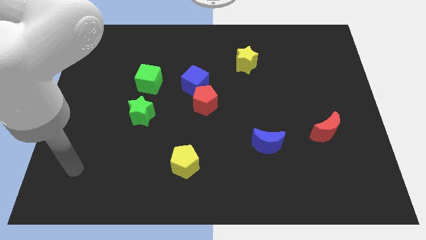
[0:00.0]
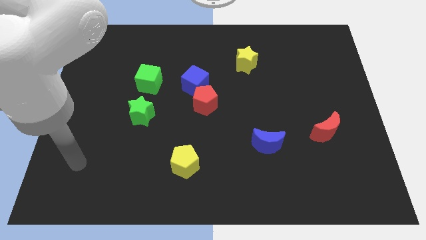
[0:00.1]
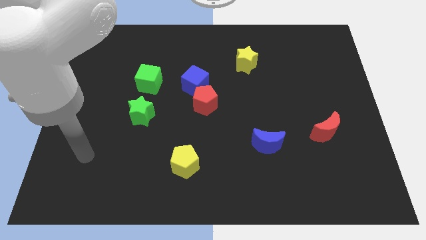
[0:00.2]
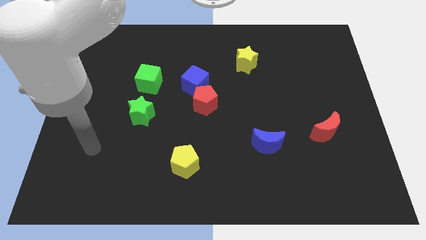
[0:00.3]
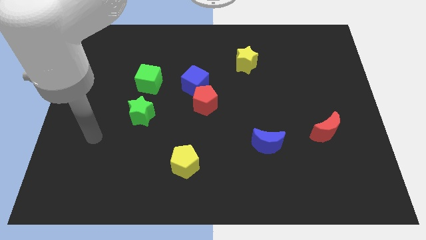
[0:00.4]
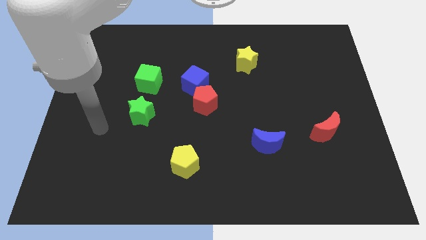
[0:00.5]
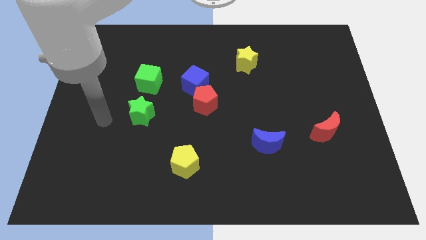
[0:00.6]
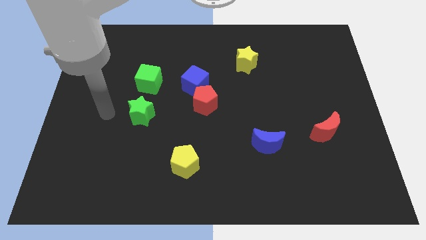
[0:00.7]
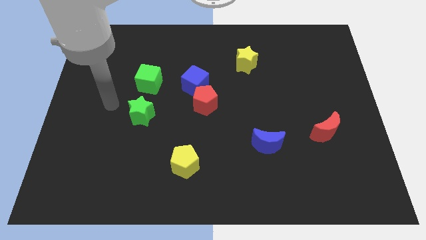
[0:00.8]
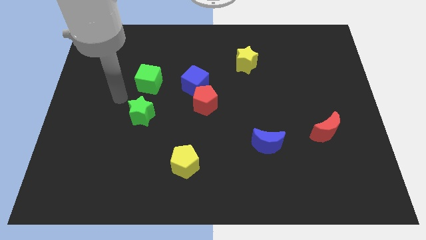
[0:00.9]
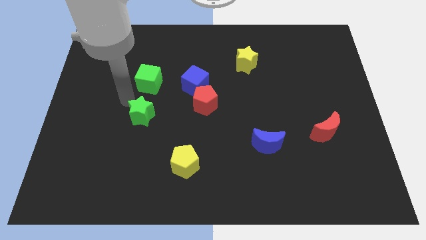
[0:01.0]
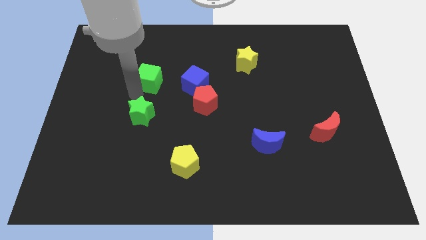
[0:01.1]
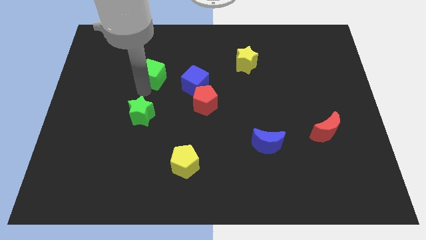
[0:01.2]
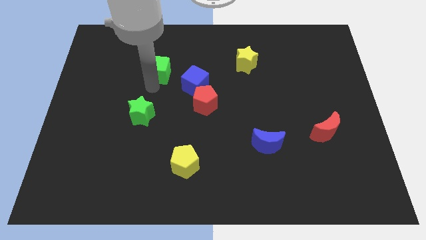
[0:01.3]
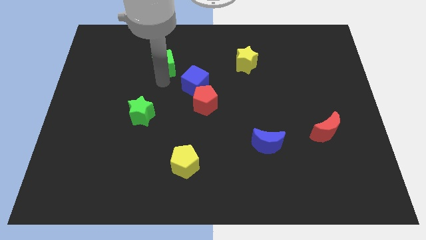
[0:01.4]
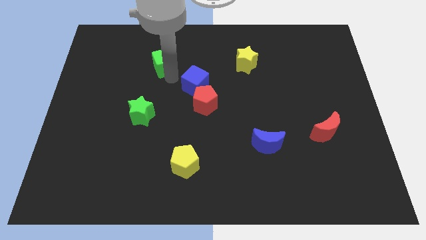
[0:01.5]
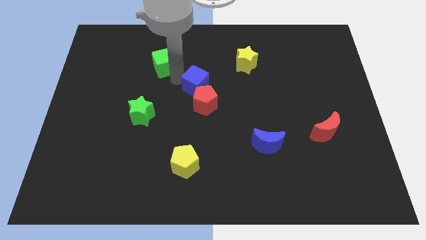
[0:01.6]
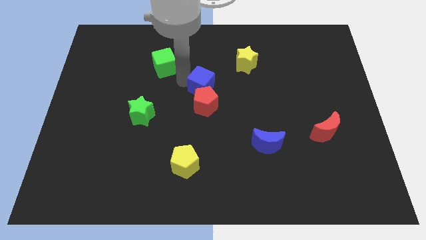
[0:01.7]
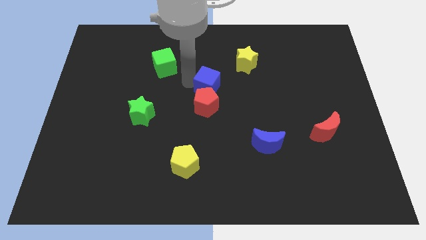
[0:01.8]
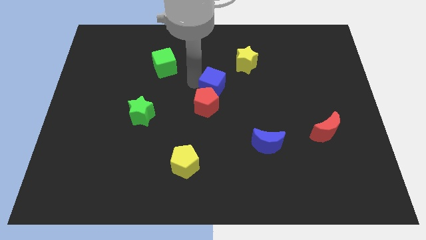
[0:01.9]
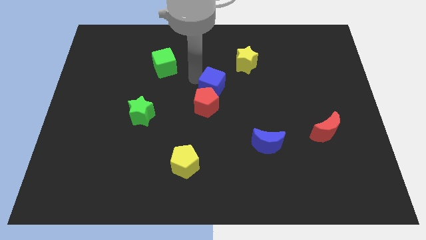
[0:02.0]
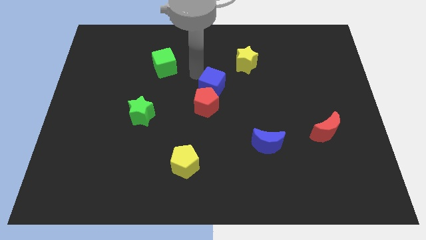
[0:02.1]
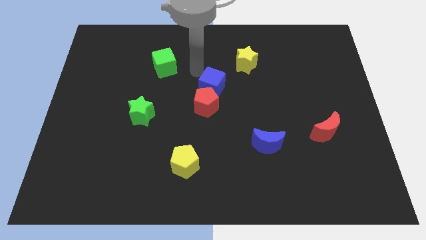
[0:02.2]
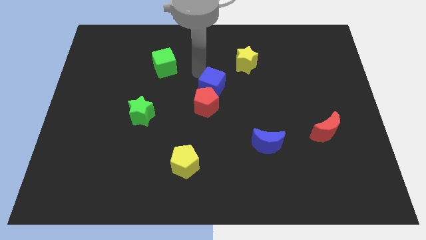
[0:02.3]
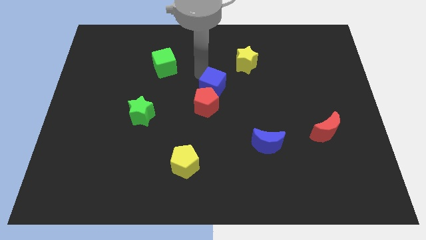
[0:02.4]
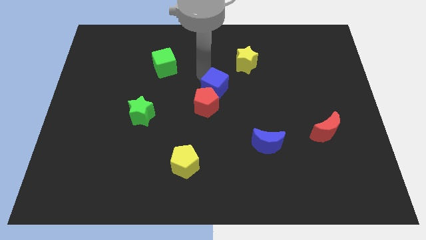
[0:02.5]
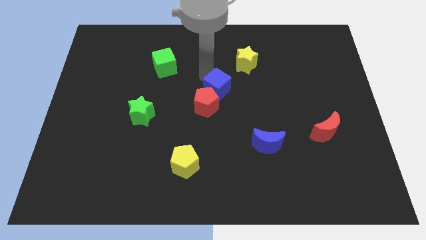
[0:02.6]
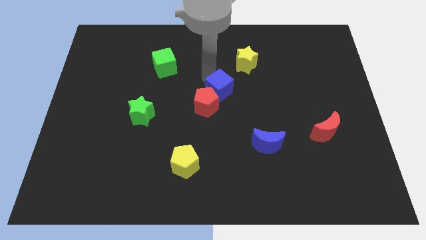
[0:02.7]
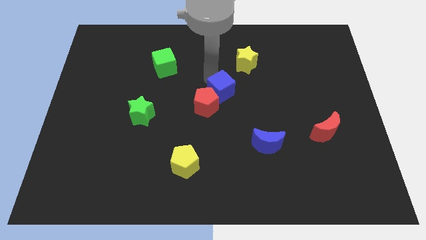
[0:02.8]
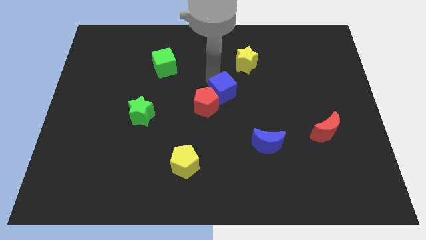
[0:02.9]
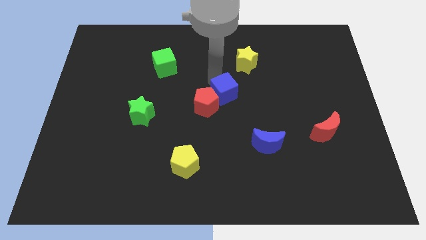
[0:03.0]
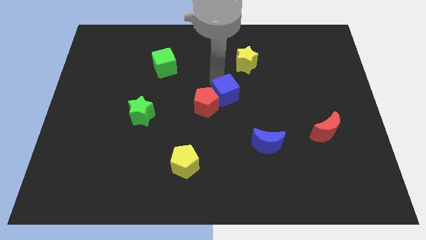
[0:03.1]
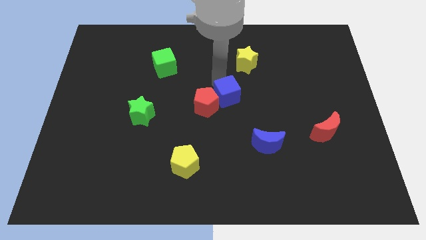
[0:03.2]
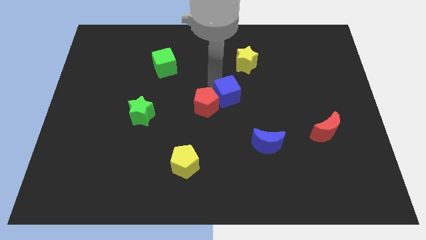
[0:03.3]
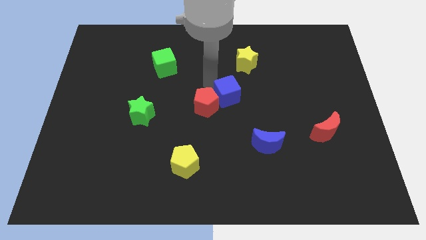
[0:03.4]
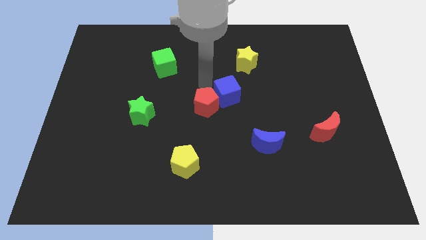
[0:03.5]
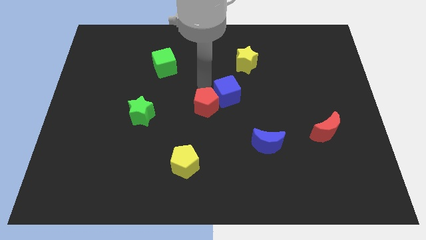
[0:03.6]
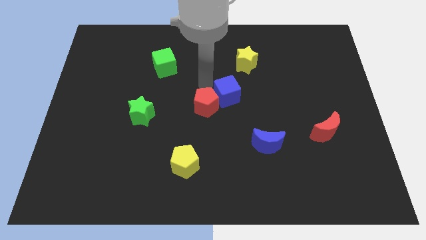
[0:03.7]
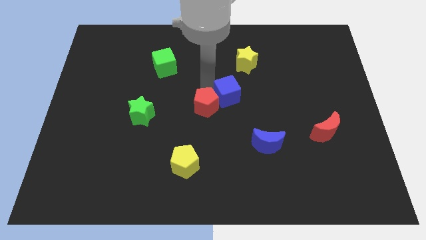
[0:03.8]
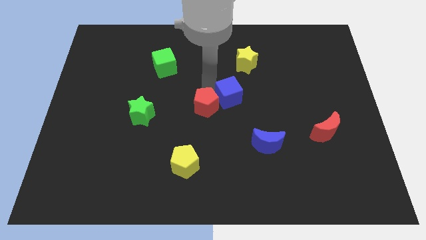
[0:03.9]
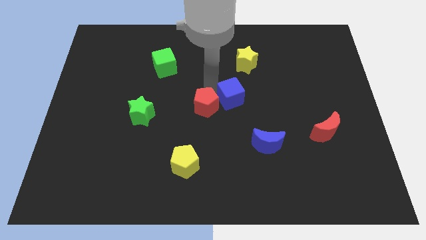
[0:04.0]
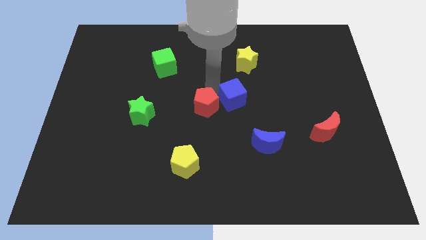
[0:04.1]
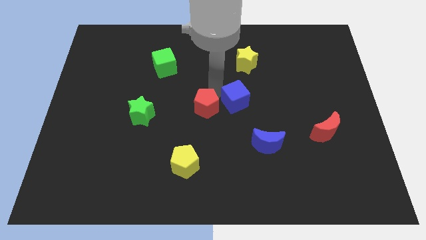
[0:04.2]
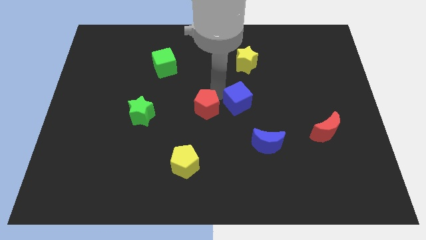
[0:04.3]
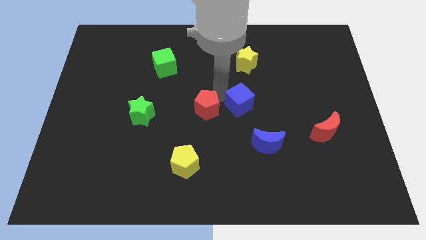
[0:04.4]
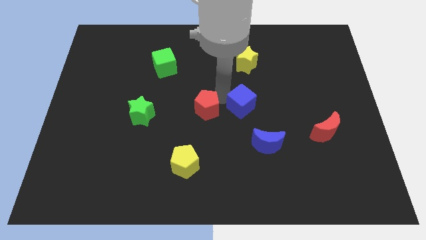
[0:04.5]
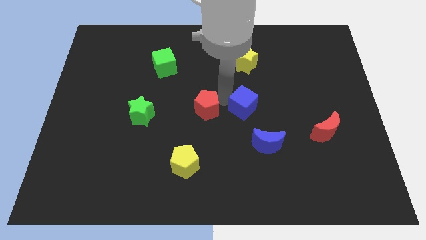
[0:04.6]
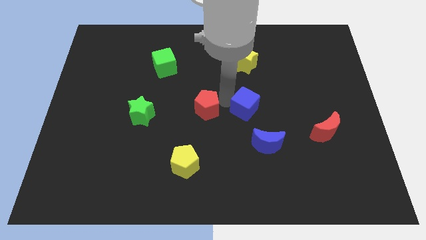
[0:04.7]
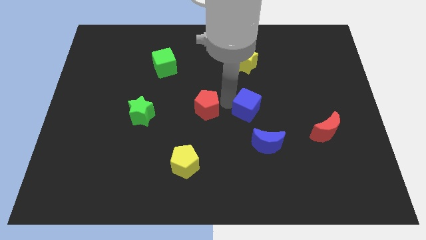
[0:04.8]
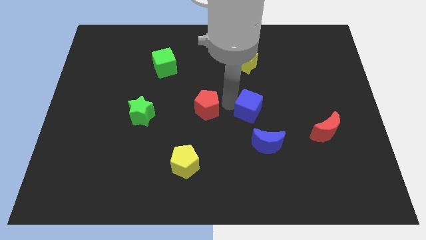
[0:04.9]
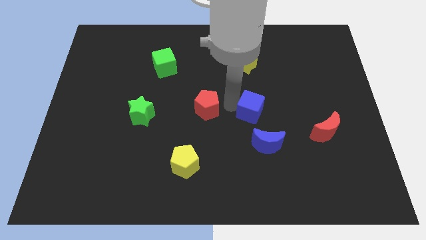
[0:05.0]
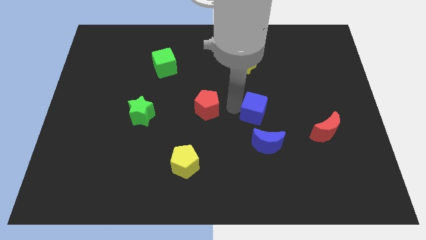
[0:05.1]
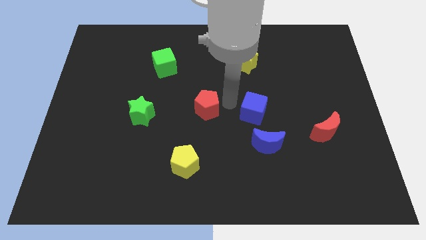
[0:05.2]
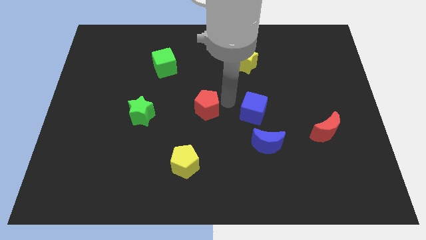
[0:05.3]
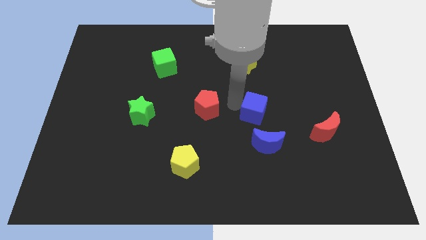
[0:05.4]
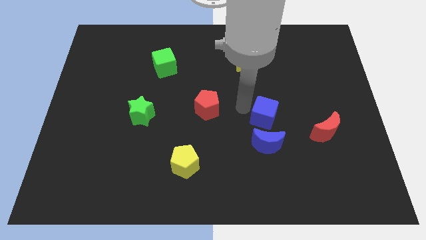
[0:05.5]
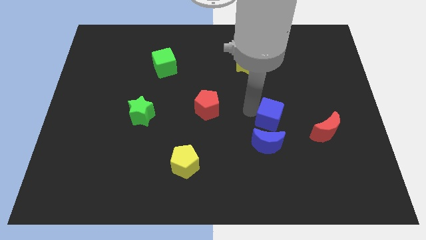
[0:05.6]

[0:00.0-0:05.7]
slide the blue cube to the top right side of the blue moon

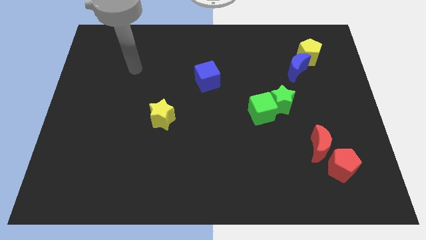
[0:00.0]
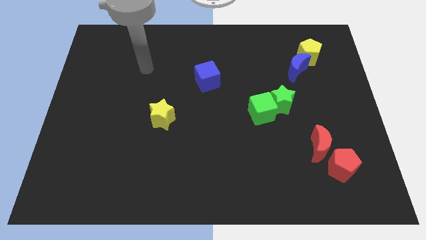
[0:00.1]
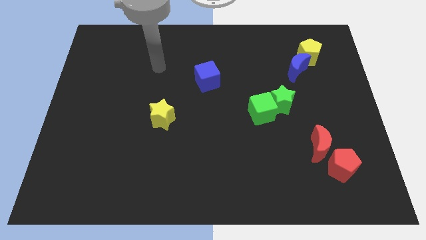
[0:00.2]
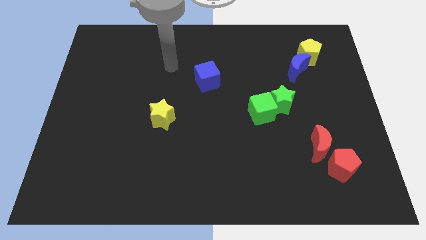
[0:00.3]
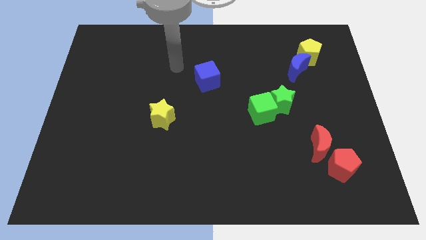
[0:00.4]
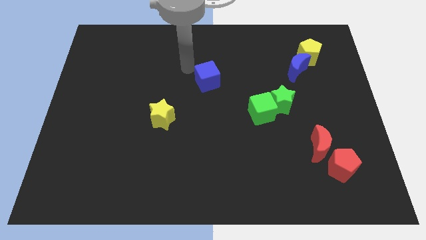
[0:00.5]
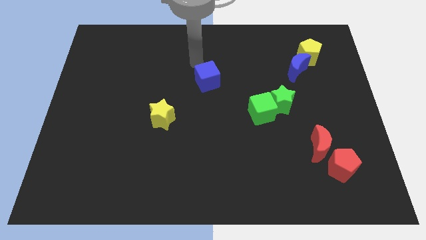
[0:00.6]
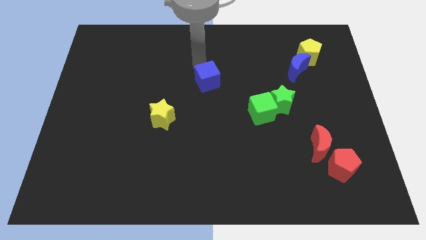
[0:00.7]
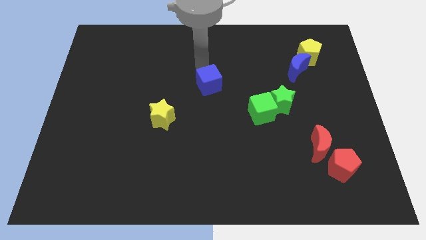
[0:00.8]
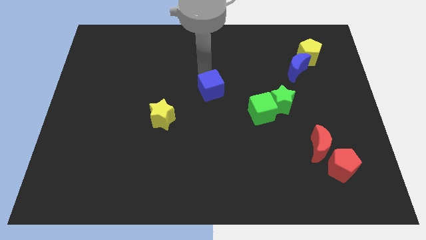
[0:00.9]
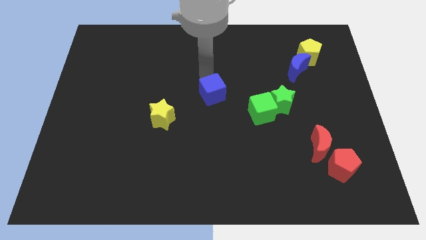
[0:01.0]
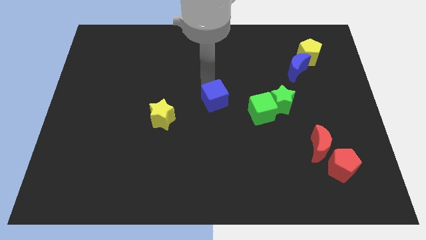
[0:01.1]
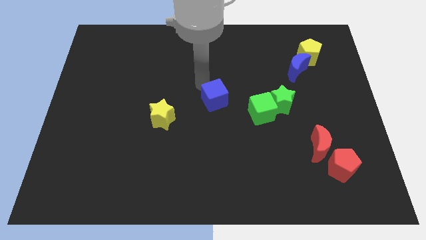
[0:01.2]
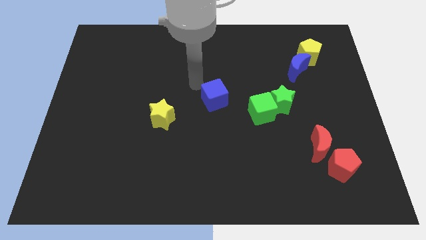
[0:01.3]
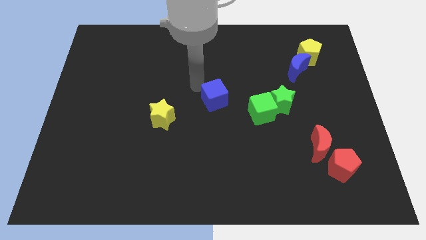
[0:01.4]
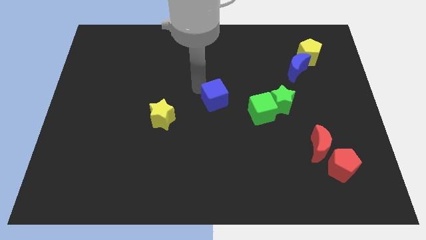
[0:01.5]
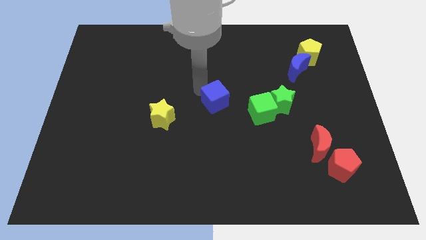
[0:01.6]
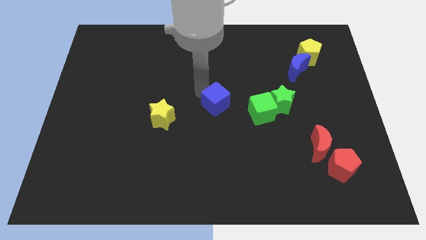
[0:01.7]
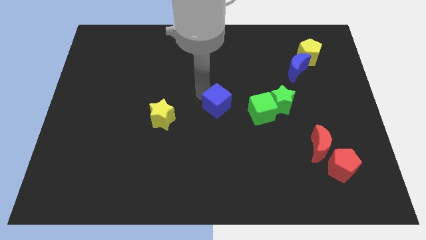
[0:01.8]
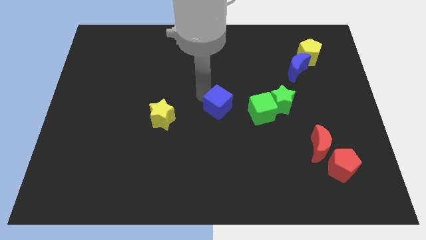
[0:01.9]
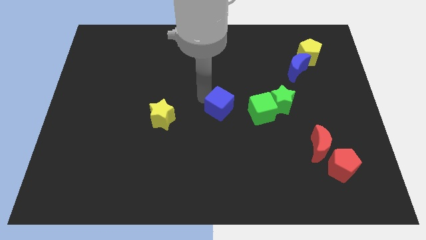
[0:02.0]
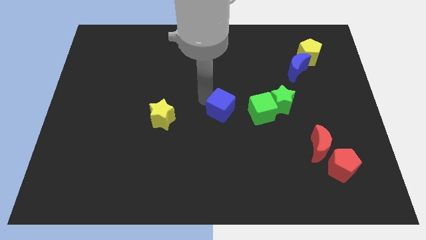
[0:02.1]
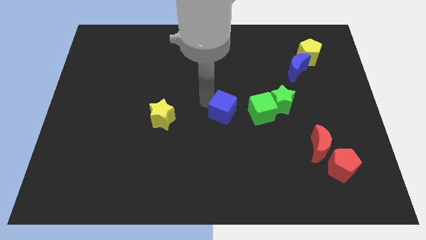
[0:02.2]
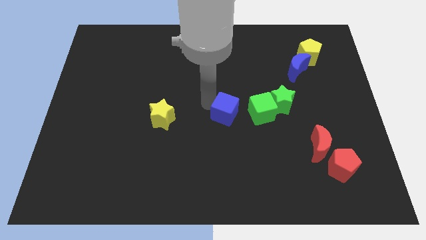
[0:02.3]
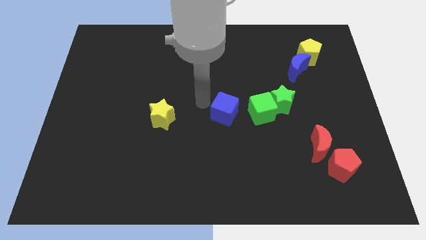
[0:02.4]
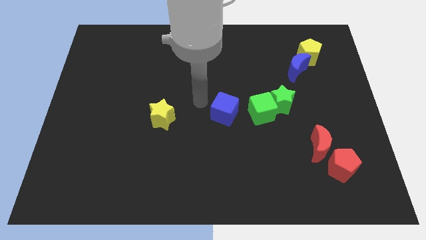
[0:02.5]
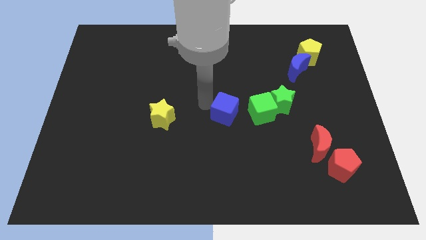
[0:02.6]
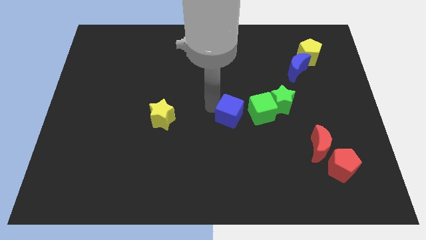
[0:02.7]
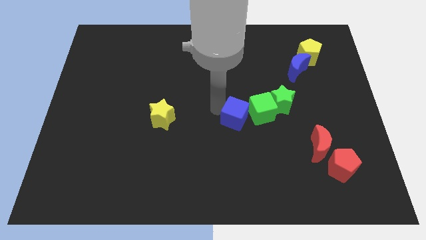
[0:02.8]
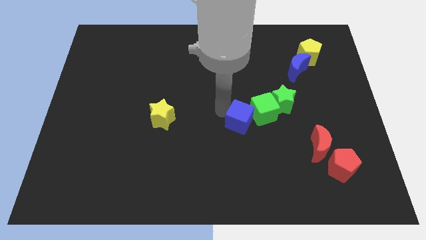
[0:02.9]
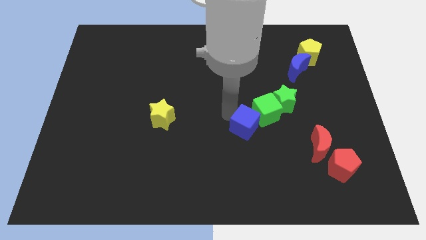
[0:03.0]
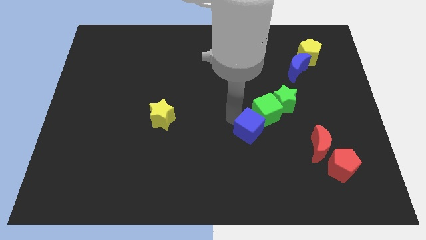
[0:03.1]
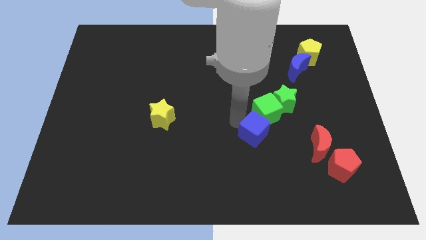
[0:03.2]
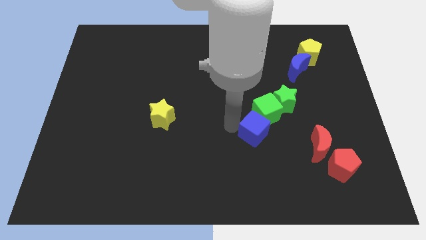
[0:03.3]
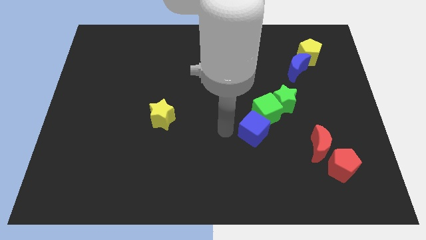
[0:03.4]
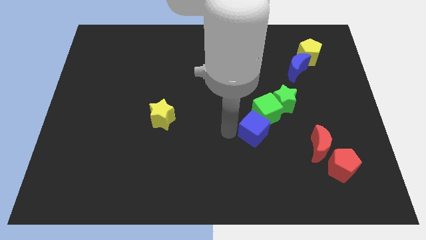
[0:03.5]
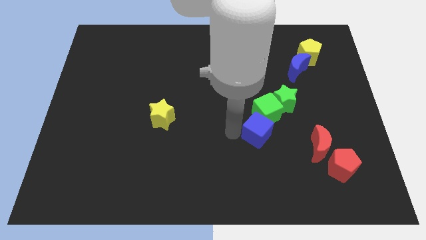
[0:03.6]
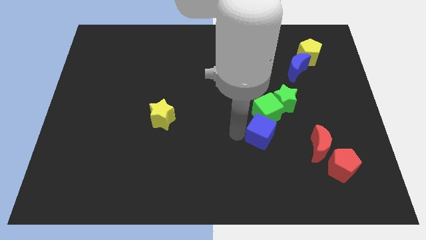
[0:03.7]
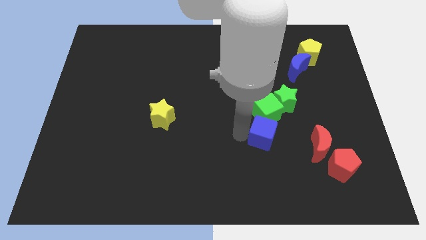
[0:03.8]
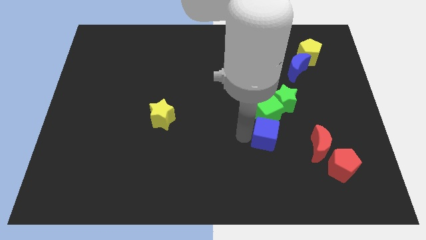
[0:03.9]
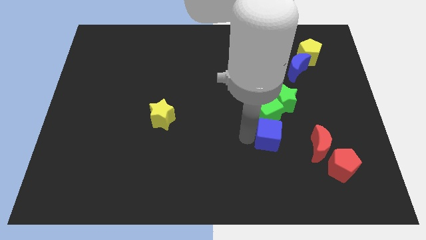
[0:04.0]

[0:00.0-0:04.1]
slide the blue cube to the bottom right of the green cube
